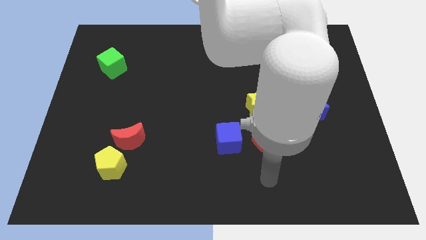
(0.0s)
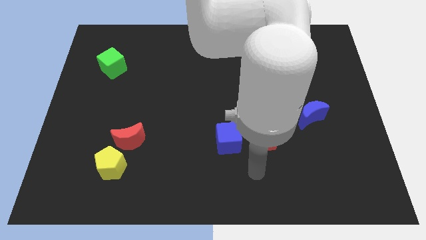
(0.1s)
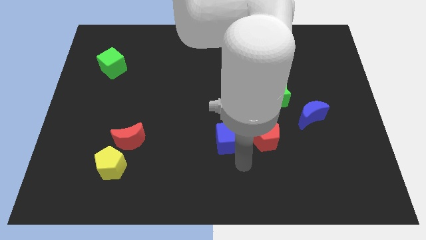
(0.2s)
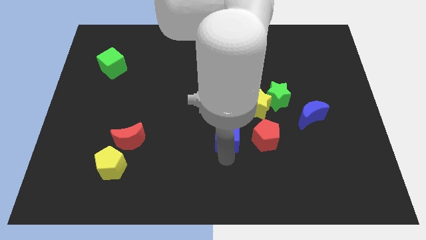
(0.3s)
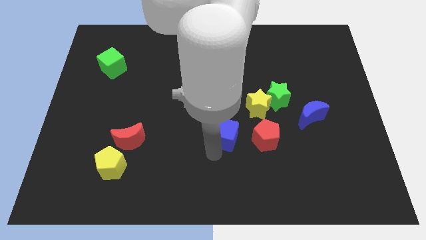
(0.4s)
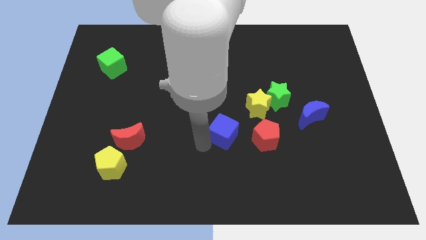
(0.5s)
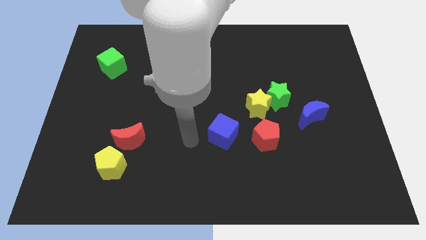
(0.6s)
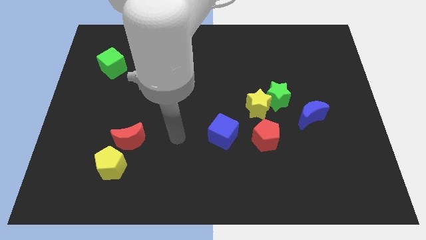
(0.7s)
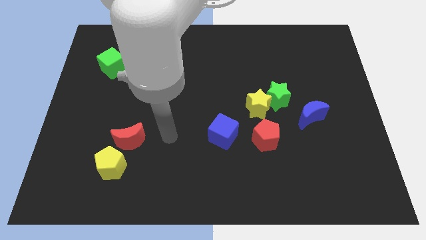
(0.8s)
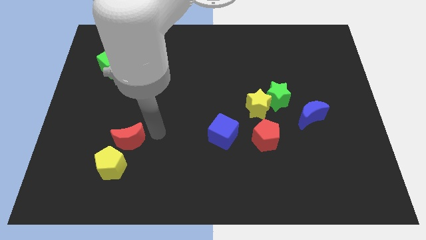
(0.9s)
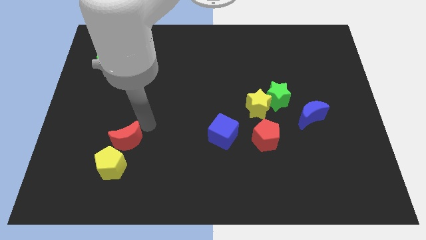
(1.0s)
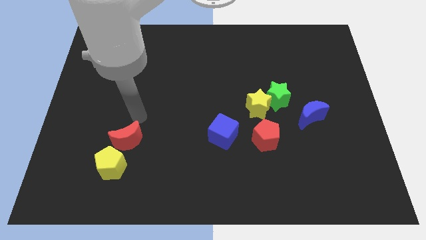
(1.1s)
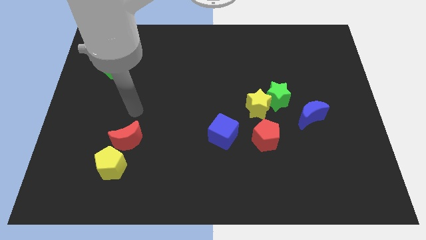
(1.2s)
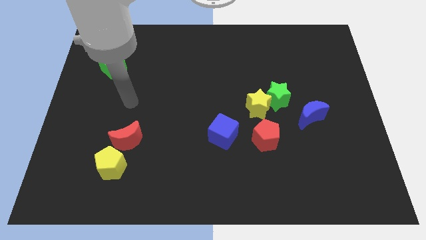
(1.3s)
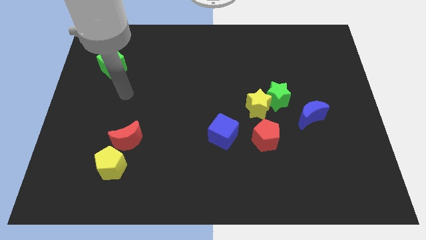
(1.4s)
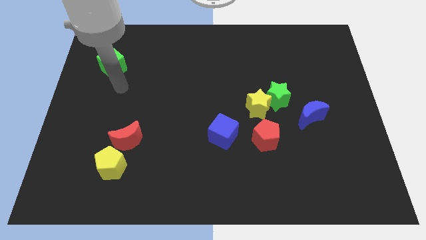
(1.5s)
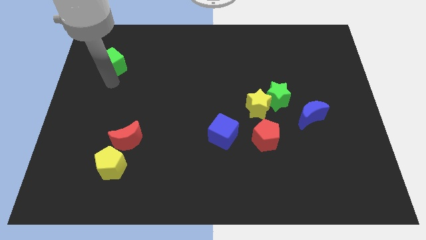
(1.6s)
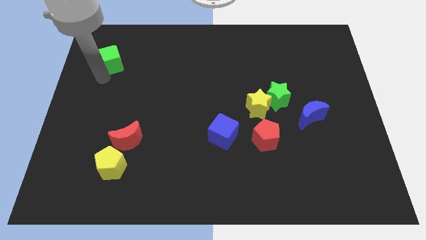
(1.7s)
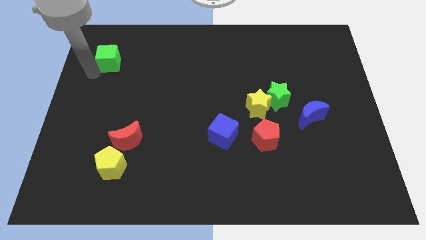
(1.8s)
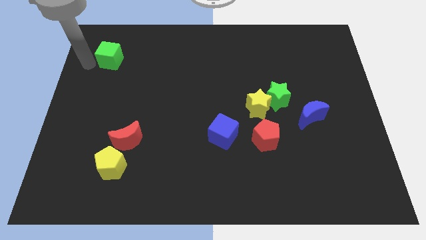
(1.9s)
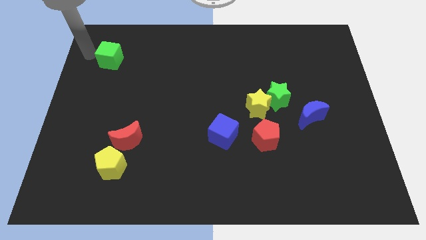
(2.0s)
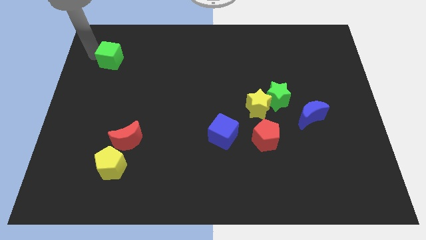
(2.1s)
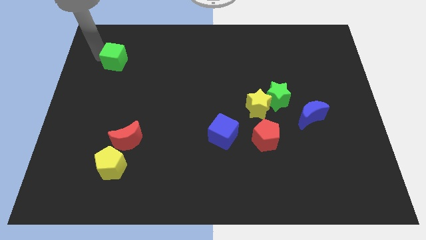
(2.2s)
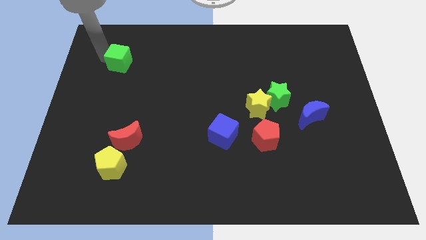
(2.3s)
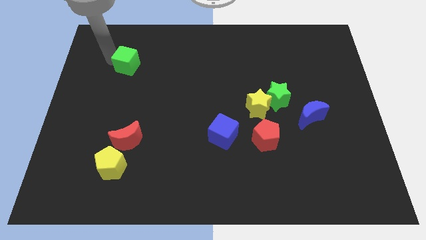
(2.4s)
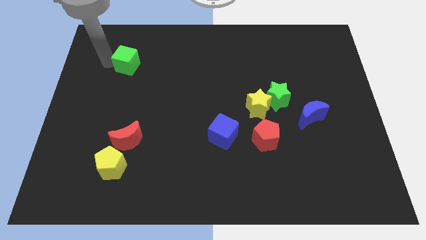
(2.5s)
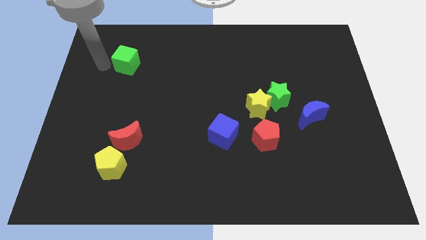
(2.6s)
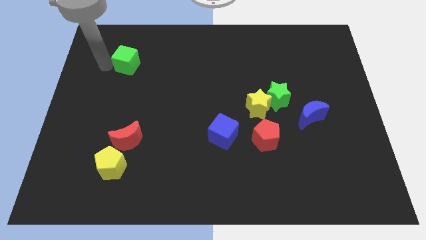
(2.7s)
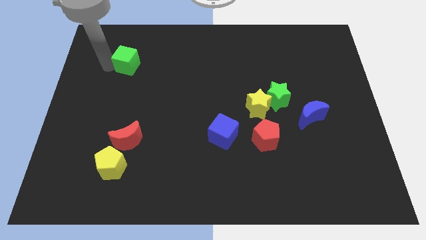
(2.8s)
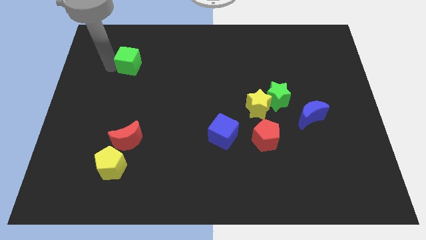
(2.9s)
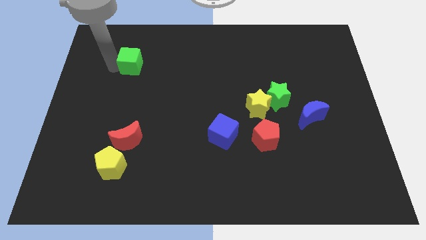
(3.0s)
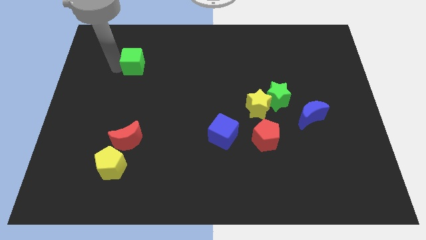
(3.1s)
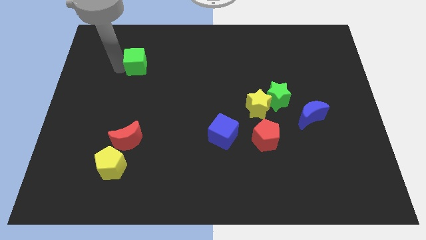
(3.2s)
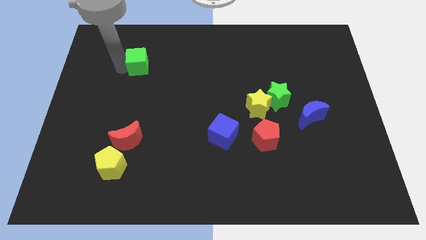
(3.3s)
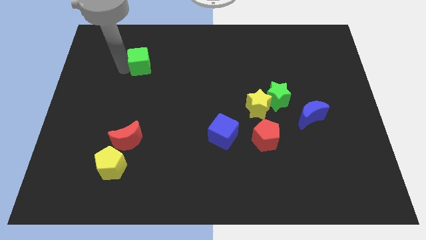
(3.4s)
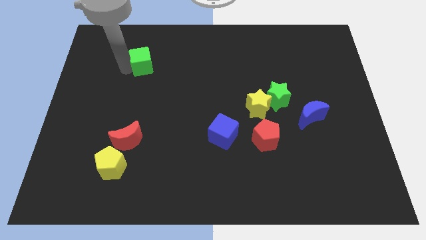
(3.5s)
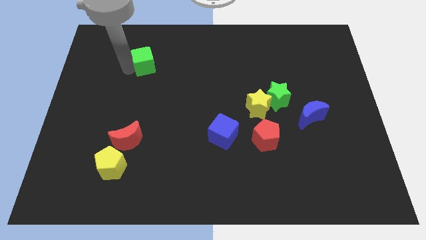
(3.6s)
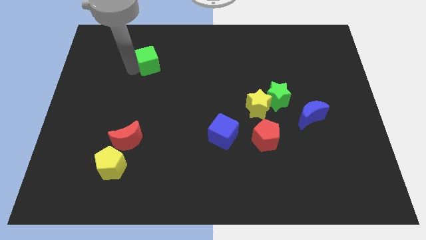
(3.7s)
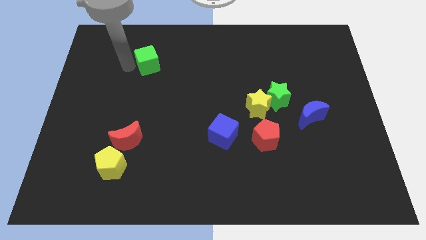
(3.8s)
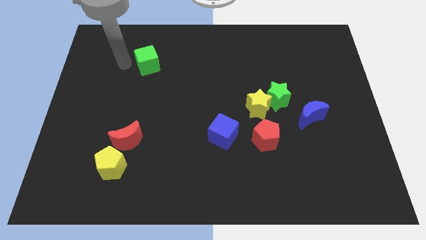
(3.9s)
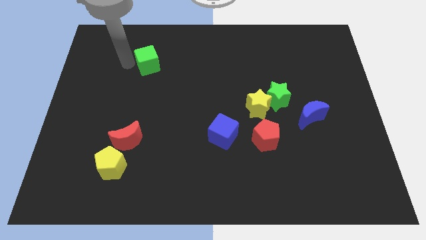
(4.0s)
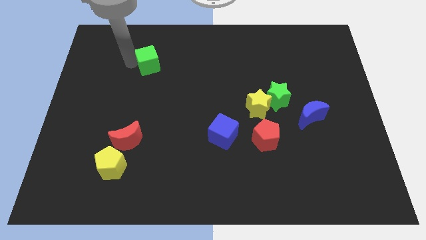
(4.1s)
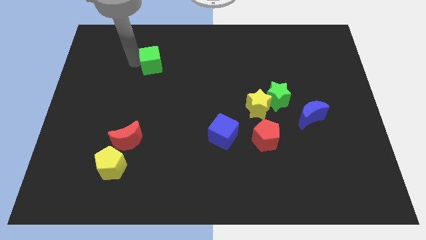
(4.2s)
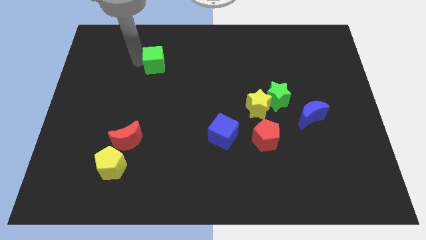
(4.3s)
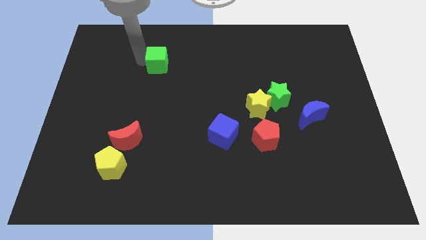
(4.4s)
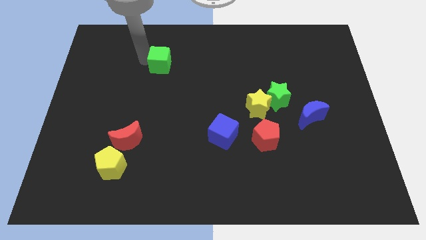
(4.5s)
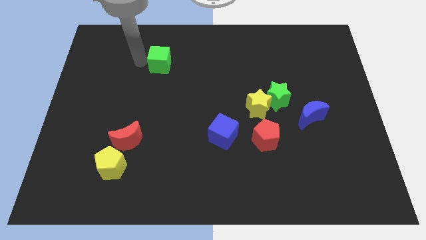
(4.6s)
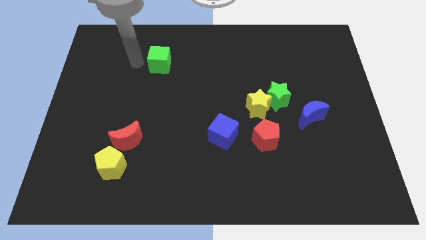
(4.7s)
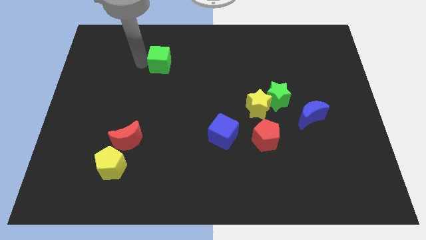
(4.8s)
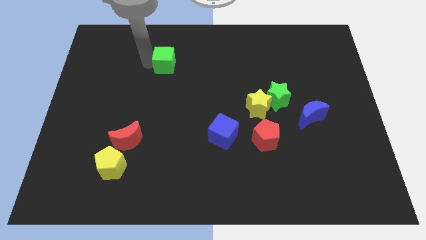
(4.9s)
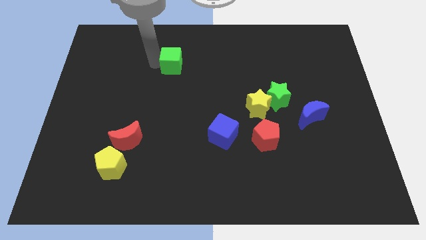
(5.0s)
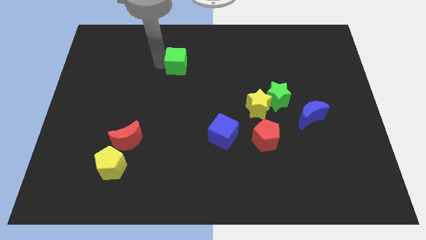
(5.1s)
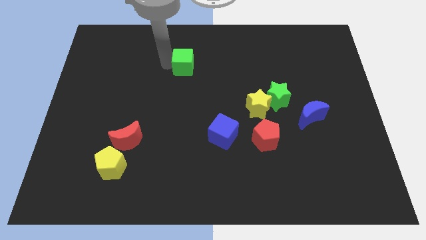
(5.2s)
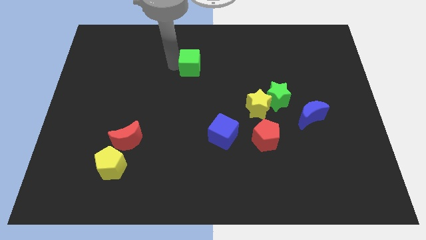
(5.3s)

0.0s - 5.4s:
move the green cube right

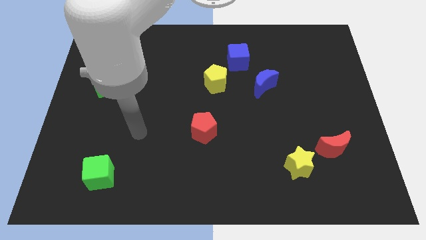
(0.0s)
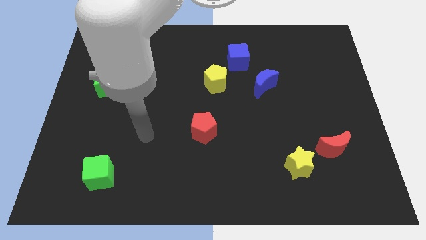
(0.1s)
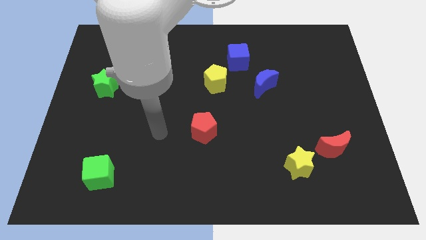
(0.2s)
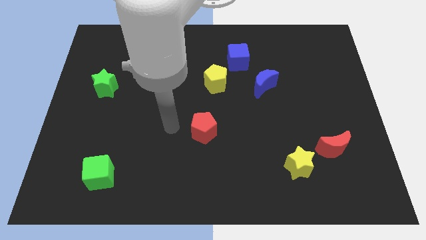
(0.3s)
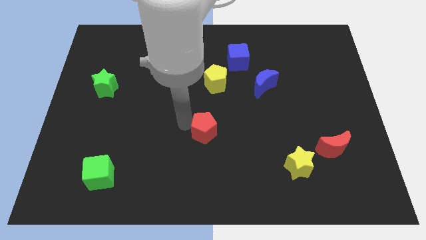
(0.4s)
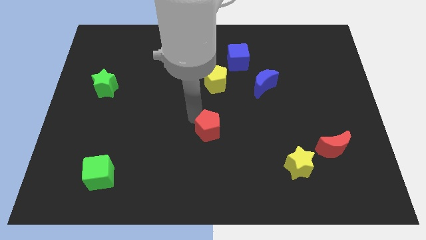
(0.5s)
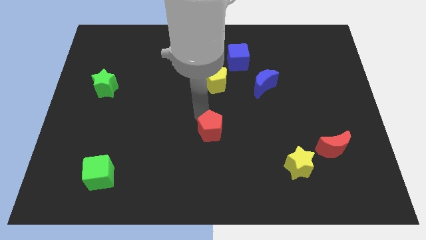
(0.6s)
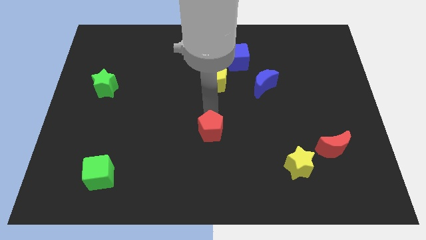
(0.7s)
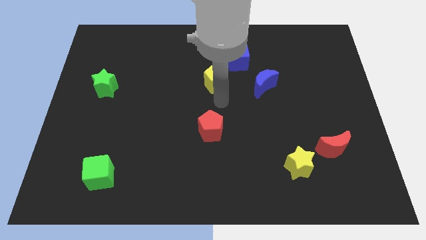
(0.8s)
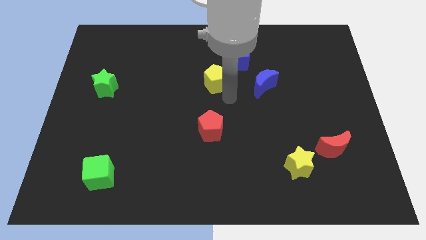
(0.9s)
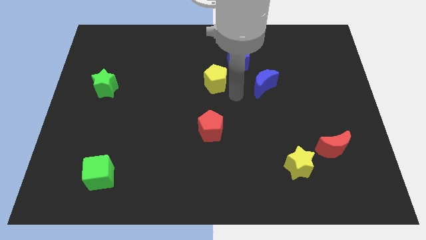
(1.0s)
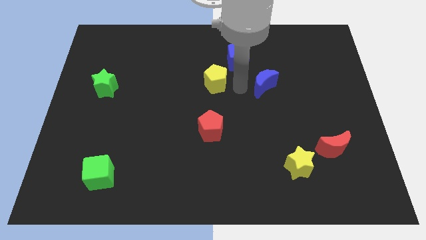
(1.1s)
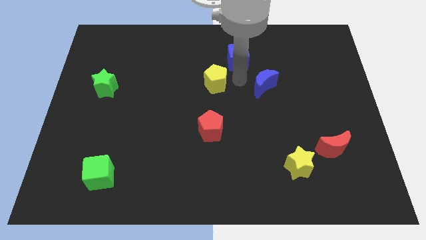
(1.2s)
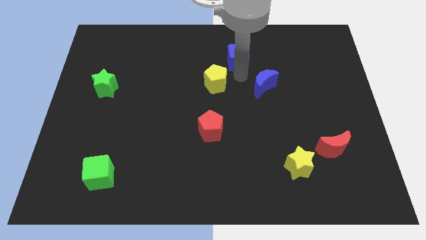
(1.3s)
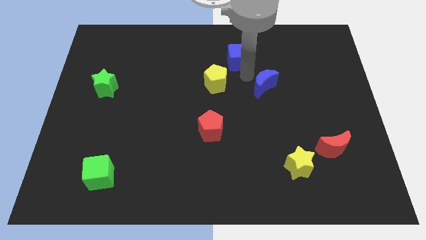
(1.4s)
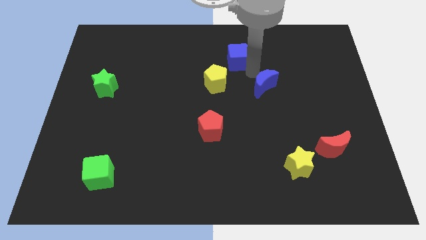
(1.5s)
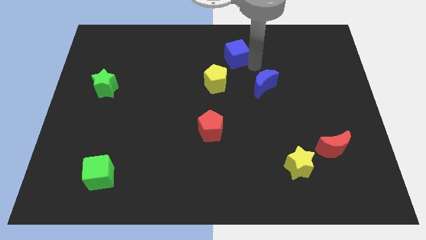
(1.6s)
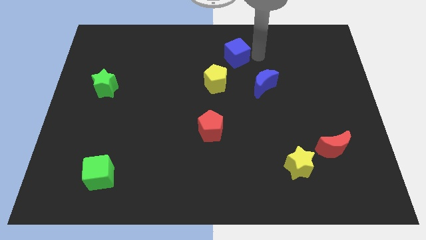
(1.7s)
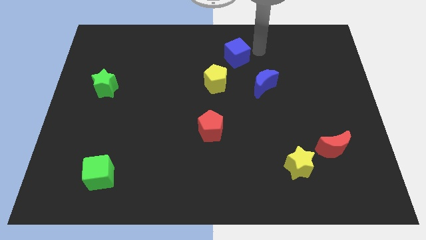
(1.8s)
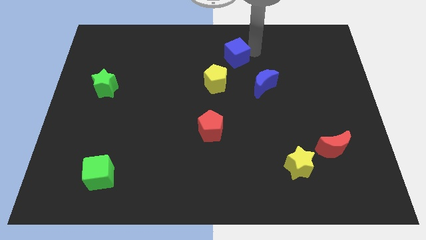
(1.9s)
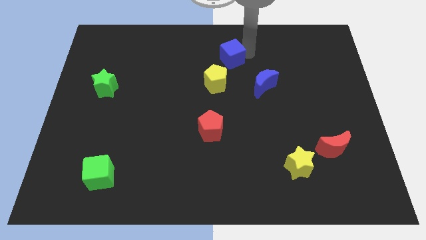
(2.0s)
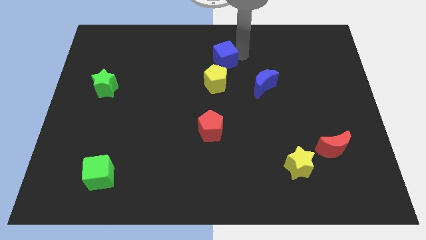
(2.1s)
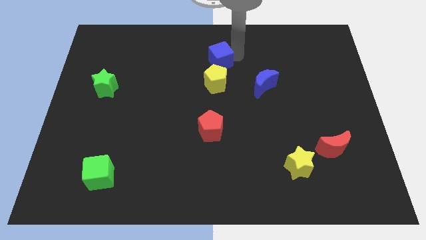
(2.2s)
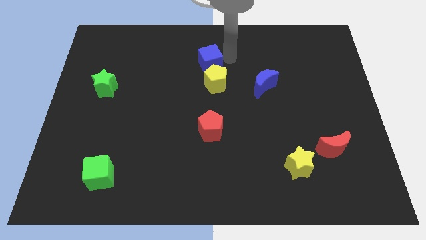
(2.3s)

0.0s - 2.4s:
slide the blue cube left a bit

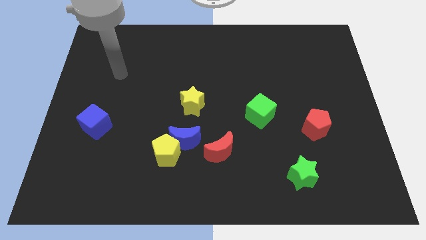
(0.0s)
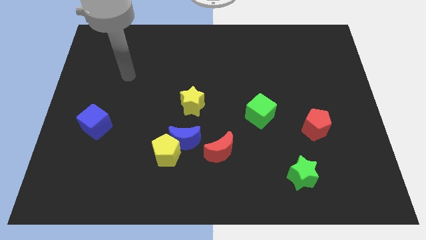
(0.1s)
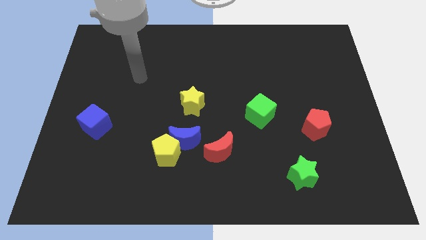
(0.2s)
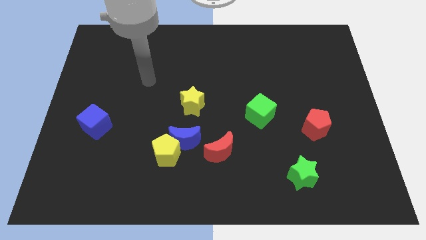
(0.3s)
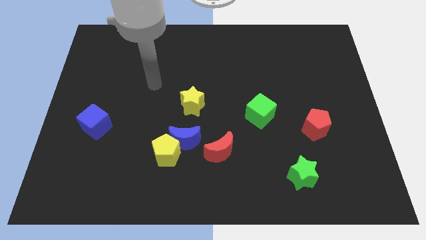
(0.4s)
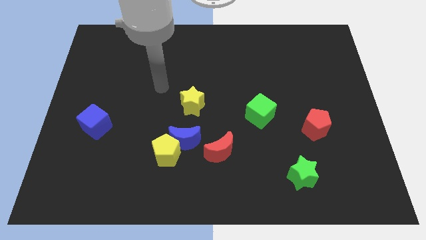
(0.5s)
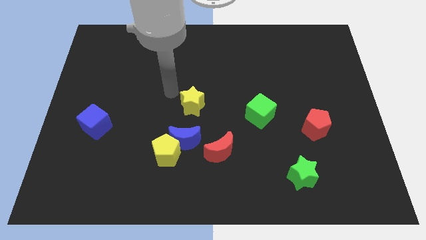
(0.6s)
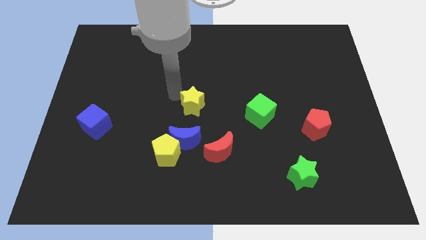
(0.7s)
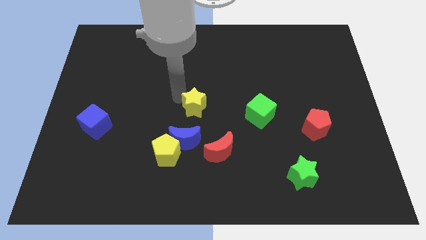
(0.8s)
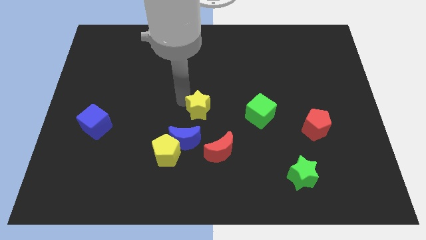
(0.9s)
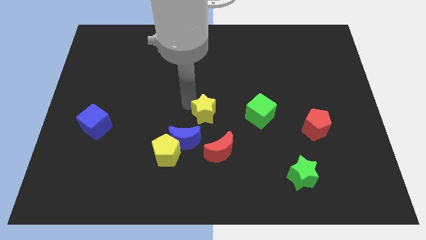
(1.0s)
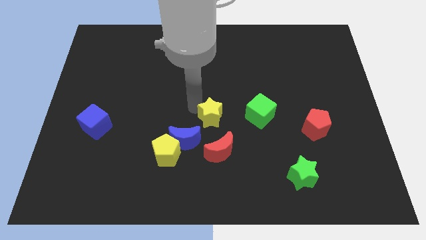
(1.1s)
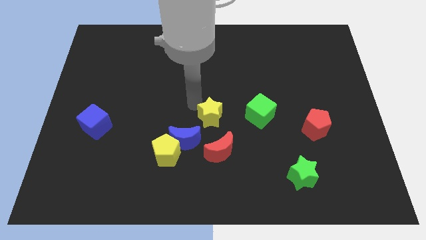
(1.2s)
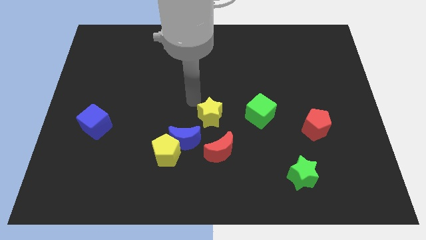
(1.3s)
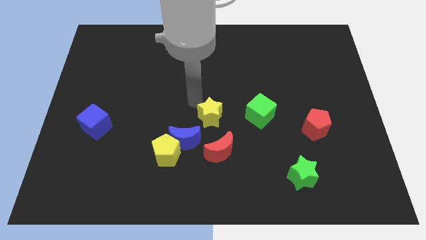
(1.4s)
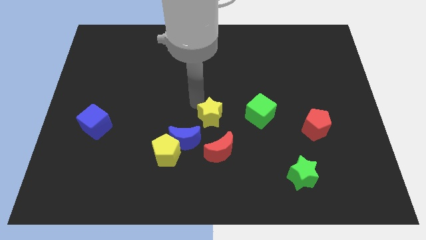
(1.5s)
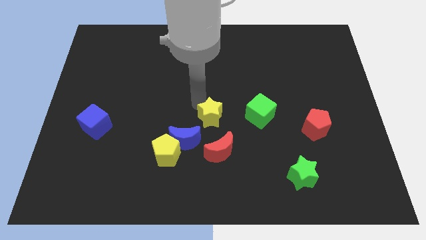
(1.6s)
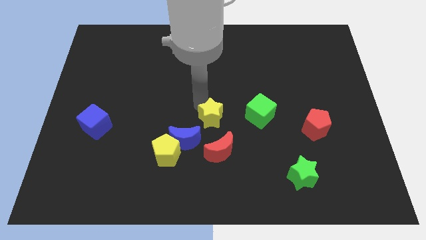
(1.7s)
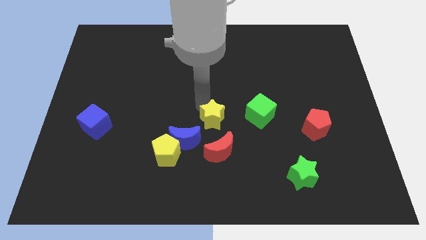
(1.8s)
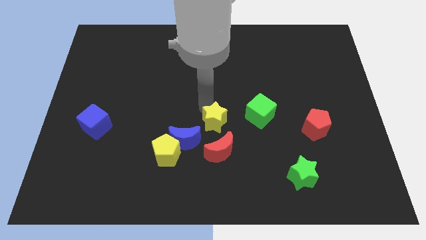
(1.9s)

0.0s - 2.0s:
slide the yellow star a bit downwards and to the right diagonally
